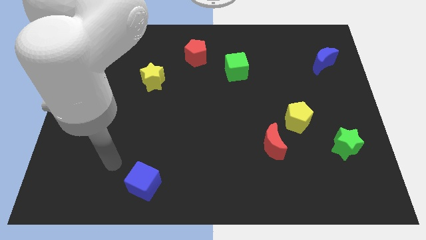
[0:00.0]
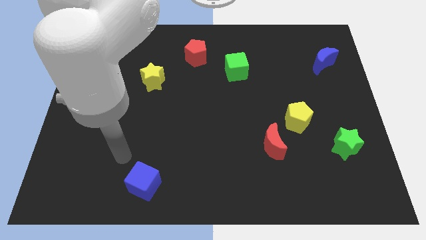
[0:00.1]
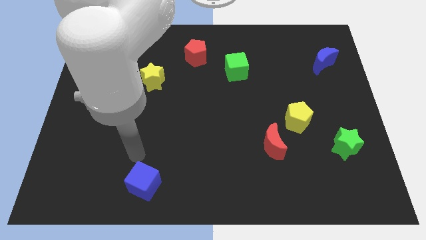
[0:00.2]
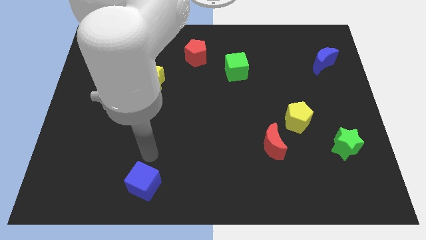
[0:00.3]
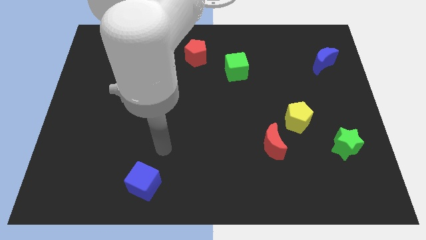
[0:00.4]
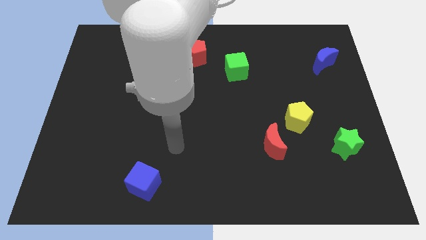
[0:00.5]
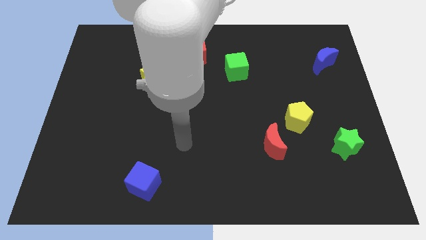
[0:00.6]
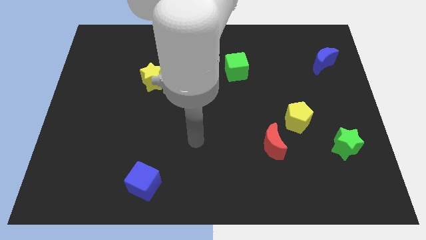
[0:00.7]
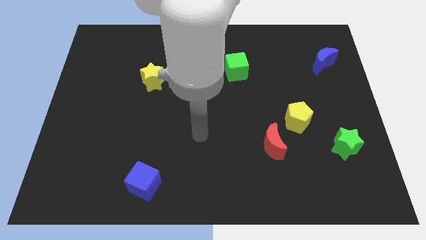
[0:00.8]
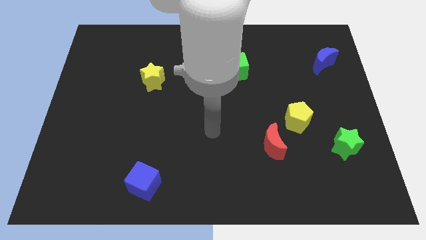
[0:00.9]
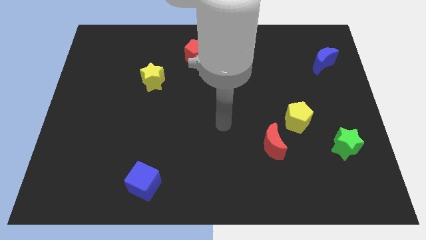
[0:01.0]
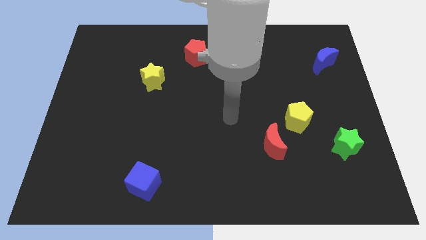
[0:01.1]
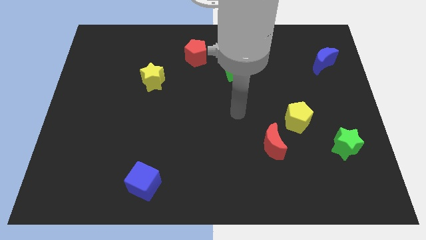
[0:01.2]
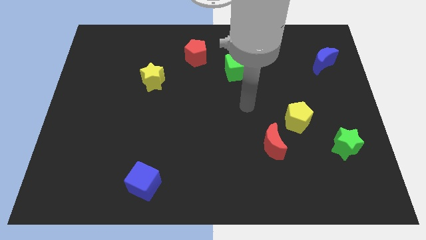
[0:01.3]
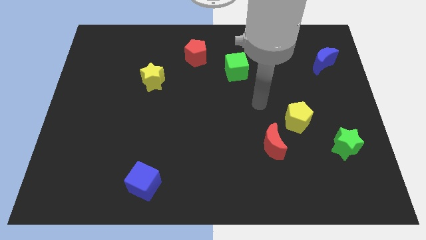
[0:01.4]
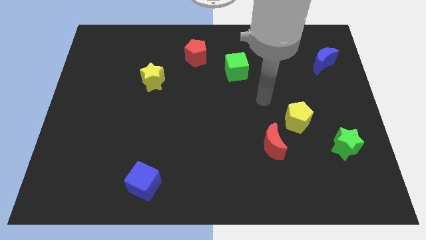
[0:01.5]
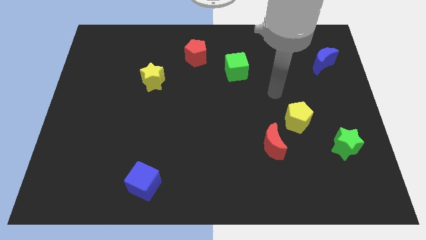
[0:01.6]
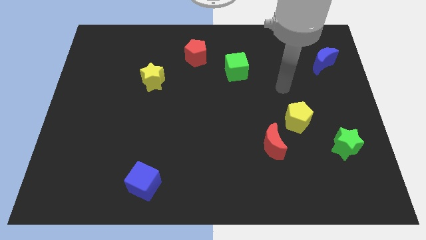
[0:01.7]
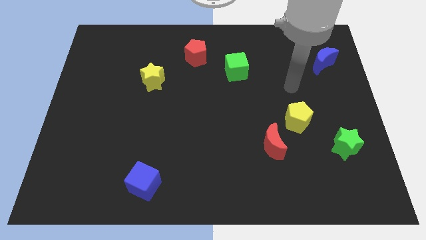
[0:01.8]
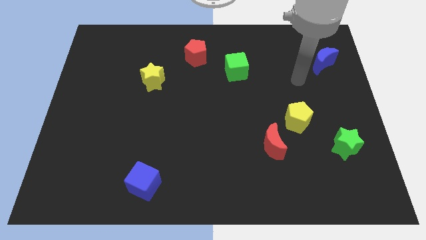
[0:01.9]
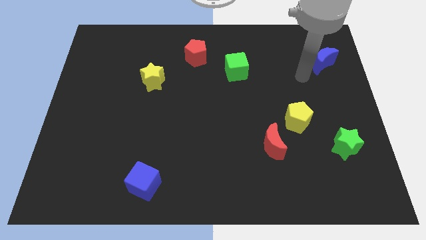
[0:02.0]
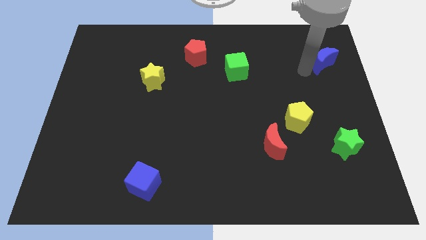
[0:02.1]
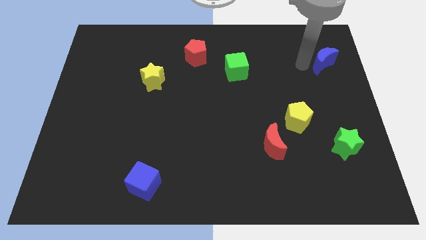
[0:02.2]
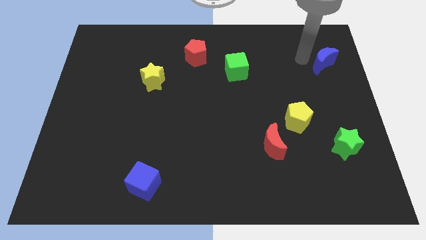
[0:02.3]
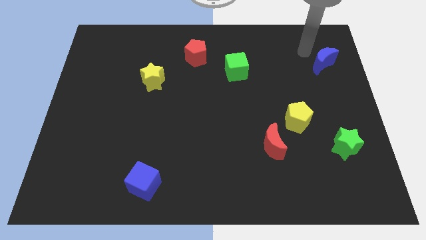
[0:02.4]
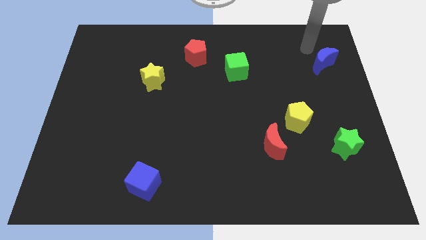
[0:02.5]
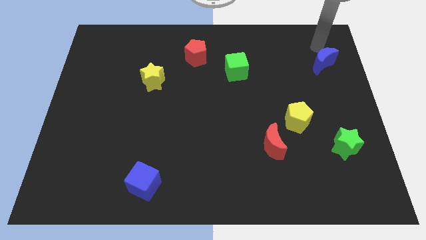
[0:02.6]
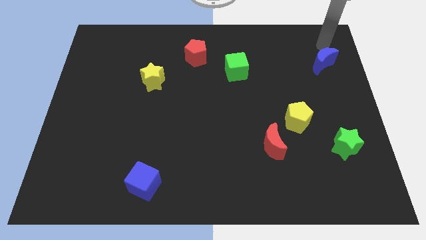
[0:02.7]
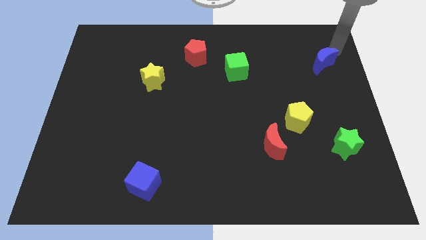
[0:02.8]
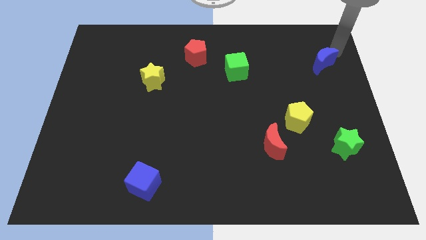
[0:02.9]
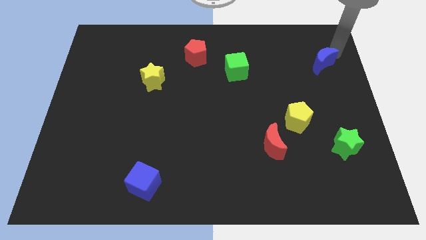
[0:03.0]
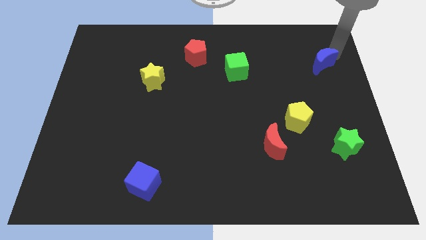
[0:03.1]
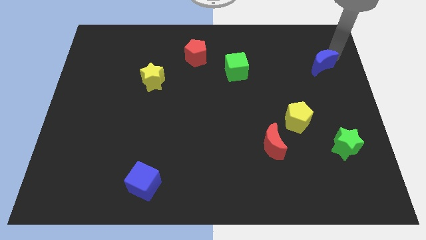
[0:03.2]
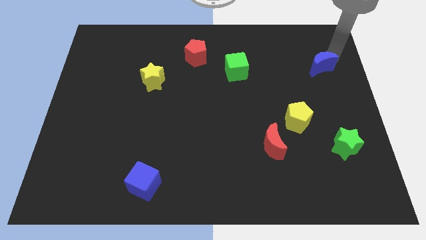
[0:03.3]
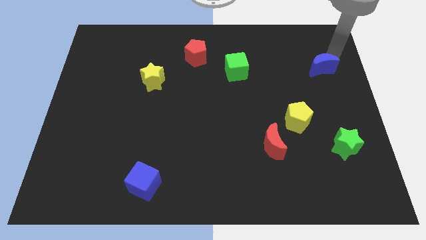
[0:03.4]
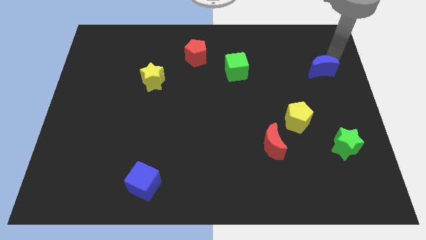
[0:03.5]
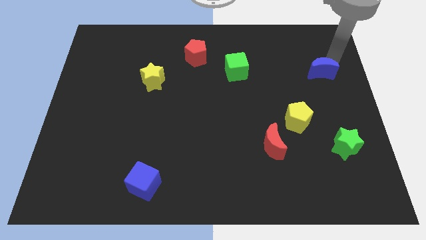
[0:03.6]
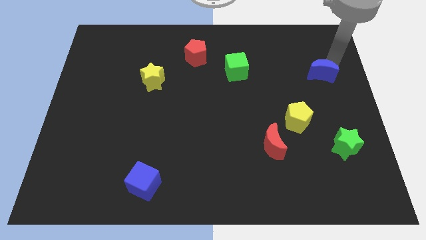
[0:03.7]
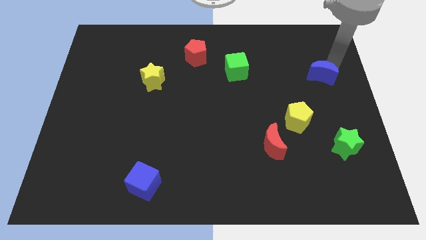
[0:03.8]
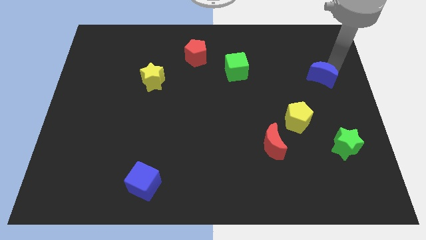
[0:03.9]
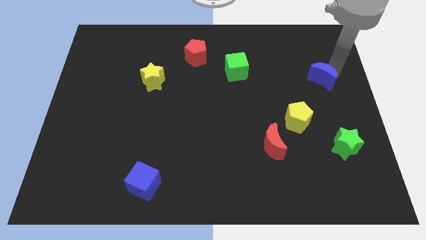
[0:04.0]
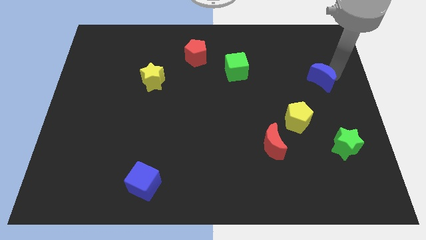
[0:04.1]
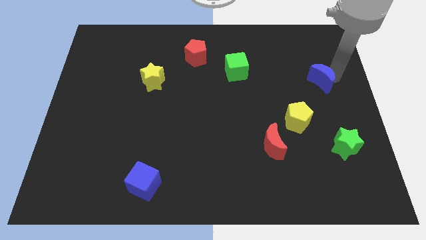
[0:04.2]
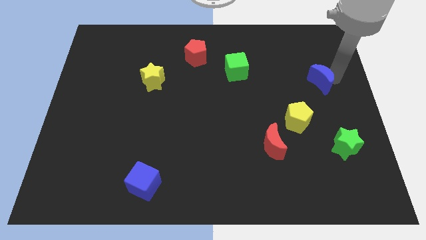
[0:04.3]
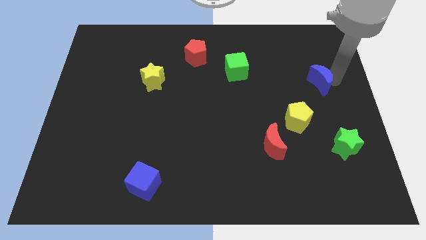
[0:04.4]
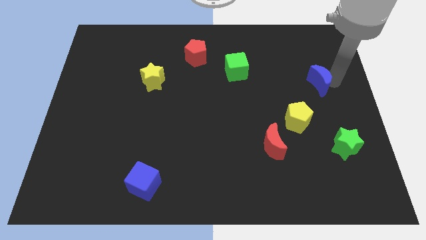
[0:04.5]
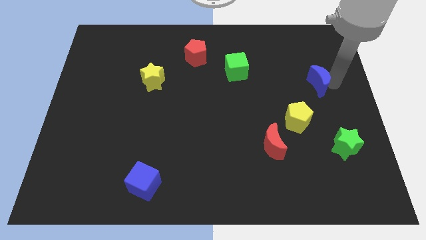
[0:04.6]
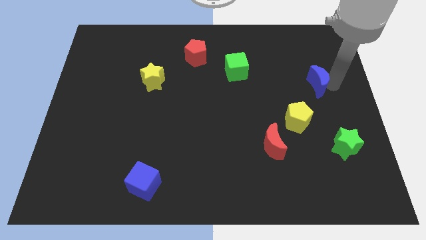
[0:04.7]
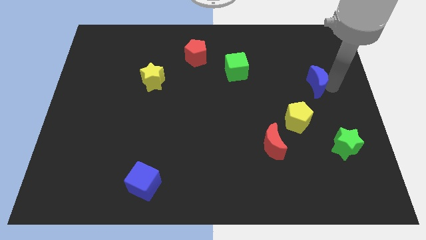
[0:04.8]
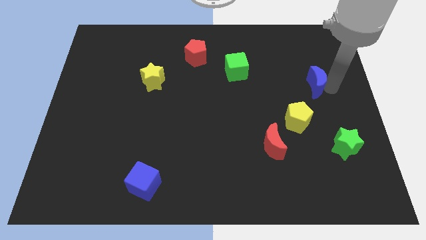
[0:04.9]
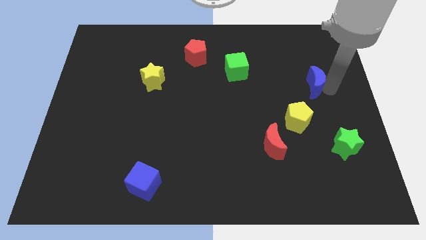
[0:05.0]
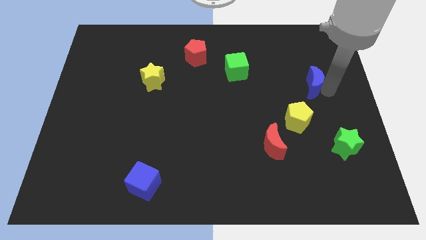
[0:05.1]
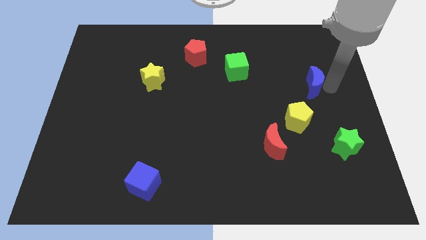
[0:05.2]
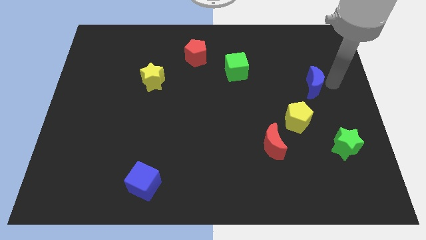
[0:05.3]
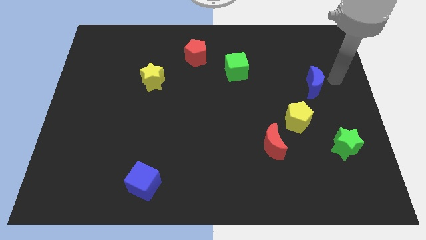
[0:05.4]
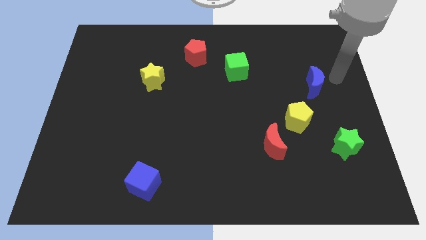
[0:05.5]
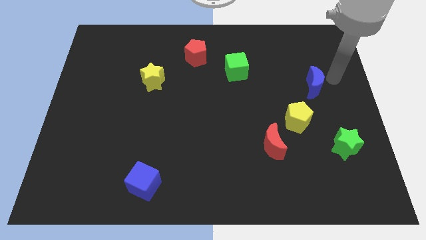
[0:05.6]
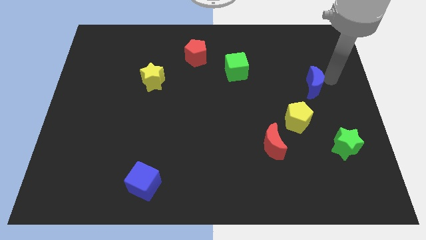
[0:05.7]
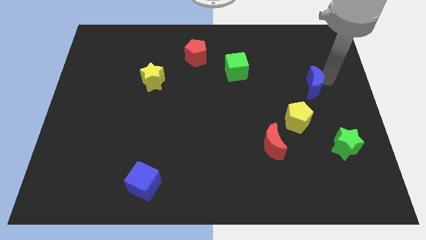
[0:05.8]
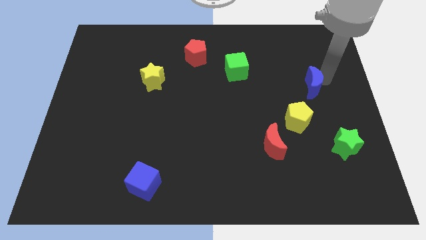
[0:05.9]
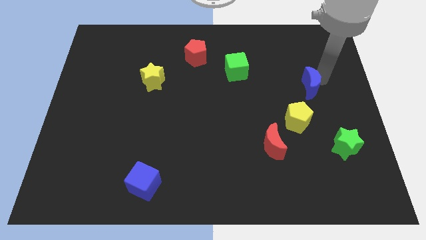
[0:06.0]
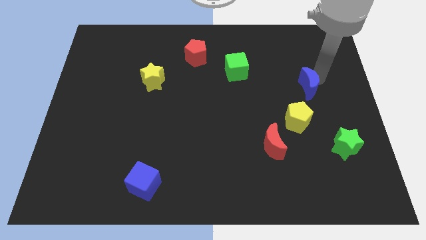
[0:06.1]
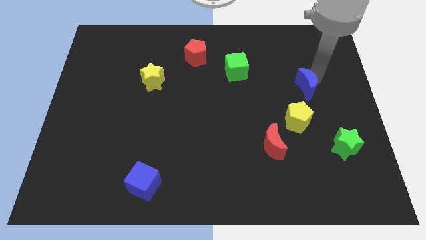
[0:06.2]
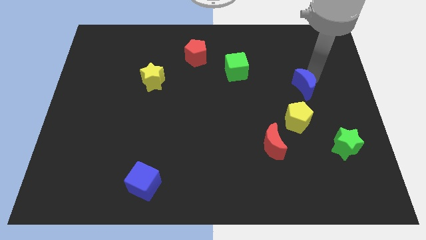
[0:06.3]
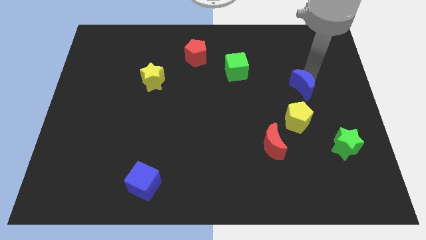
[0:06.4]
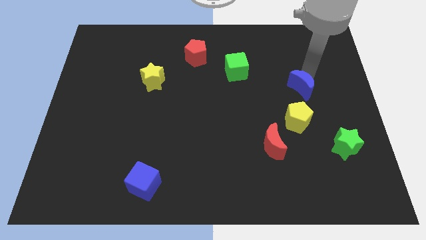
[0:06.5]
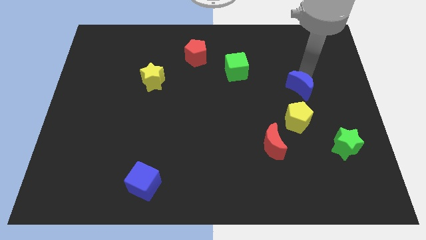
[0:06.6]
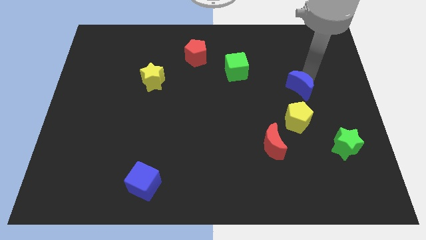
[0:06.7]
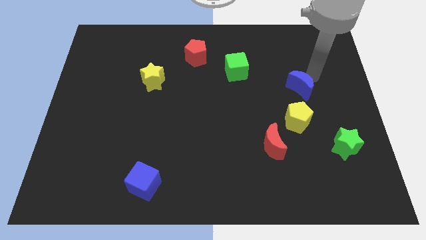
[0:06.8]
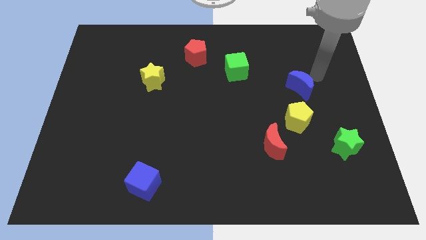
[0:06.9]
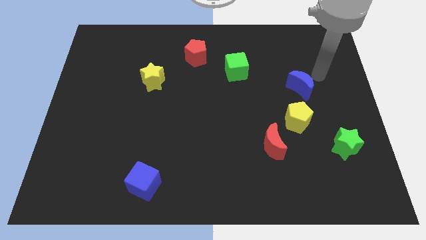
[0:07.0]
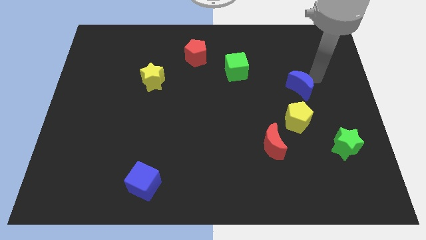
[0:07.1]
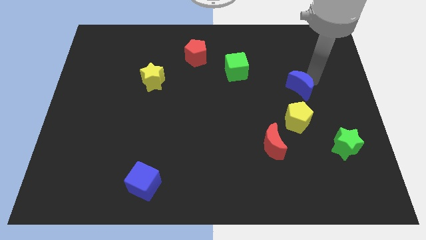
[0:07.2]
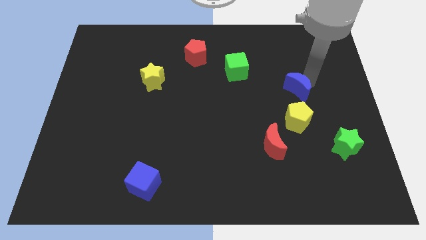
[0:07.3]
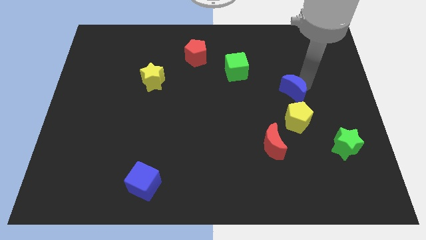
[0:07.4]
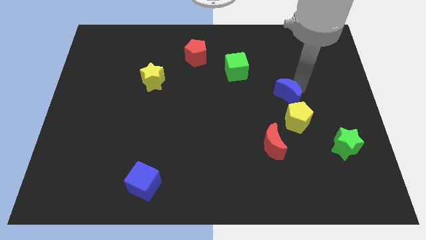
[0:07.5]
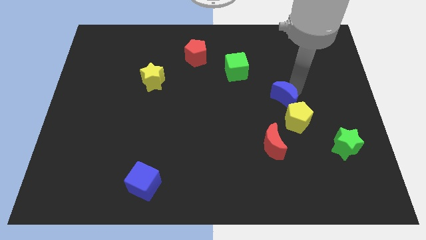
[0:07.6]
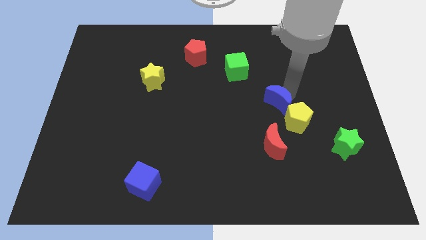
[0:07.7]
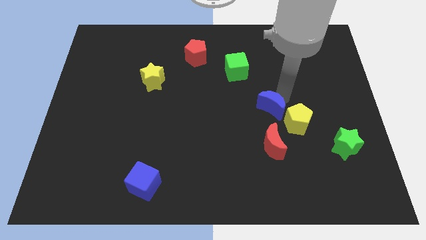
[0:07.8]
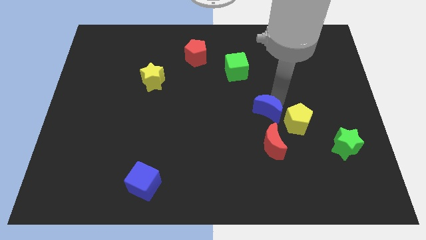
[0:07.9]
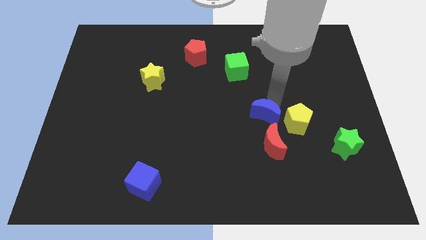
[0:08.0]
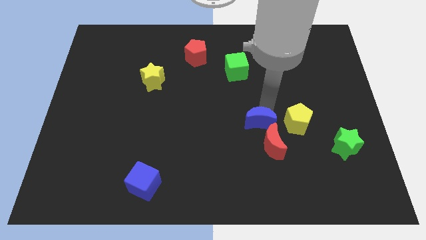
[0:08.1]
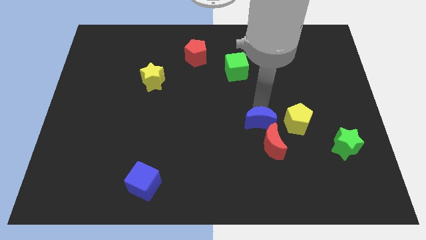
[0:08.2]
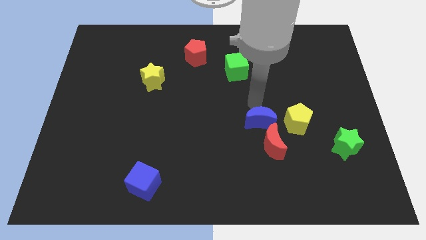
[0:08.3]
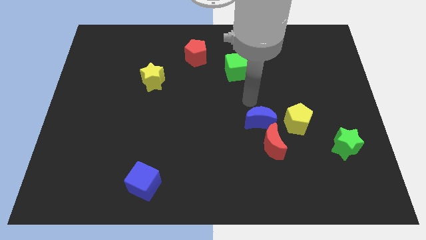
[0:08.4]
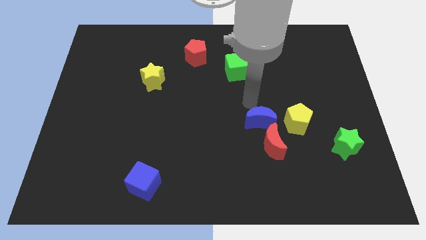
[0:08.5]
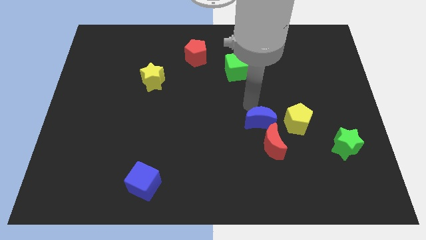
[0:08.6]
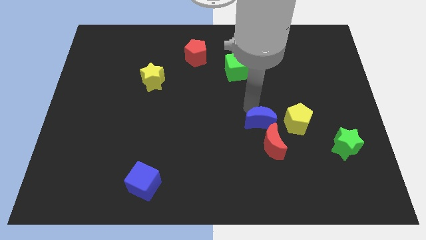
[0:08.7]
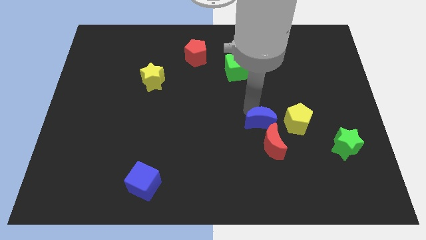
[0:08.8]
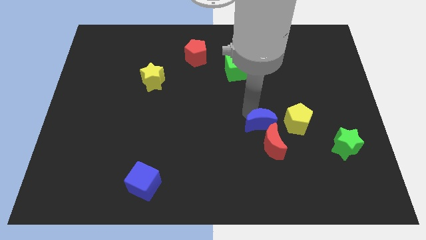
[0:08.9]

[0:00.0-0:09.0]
move the blue moon to the red moon
